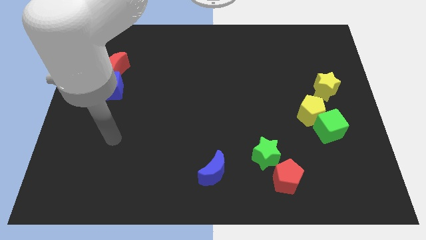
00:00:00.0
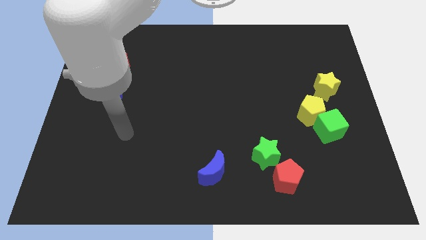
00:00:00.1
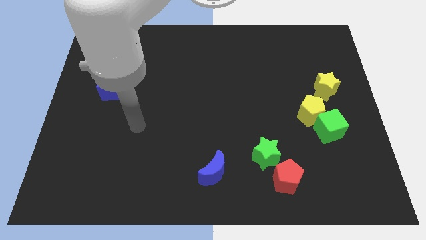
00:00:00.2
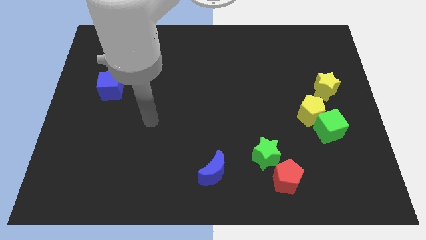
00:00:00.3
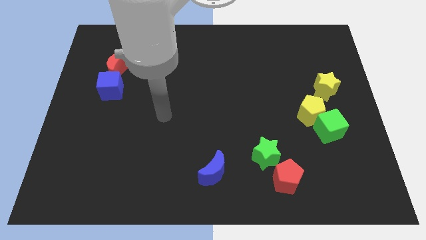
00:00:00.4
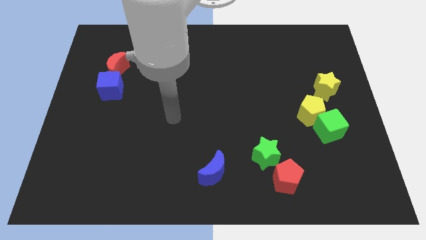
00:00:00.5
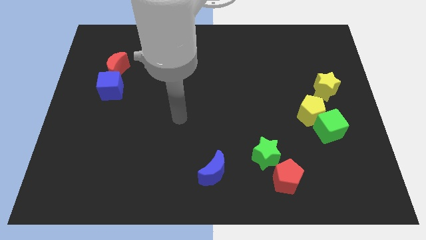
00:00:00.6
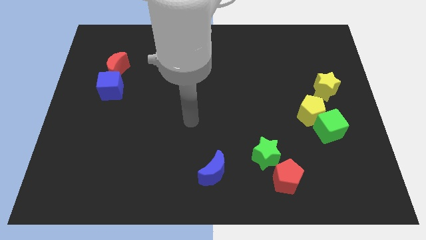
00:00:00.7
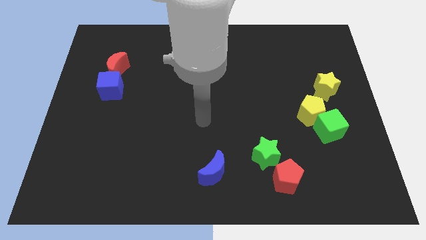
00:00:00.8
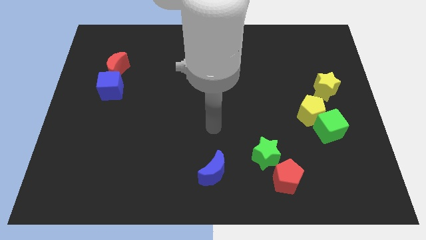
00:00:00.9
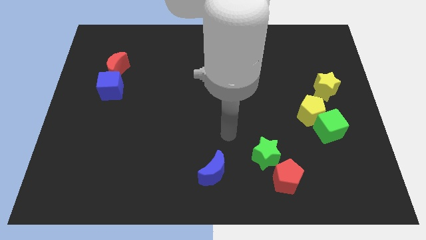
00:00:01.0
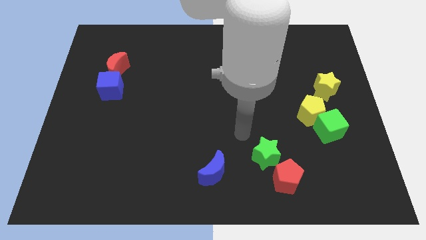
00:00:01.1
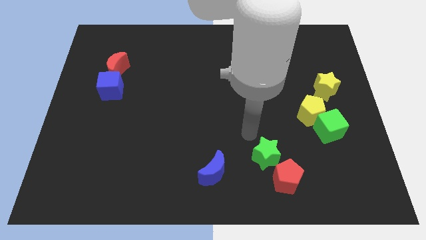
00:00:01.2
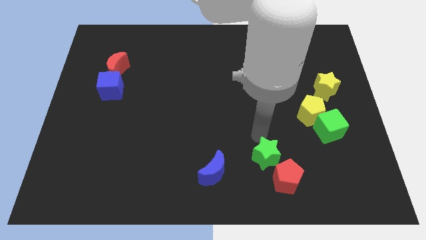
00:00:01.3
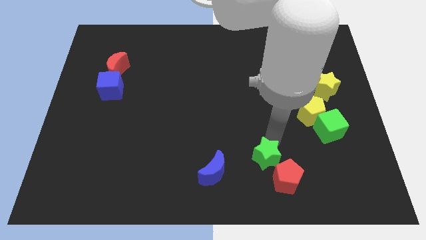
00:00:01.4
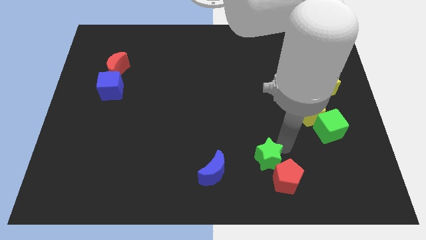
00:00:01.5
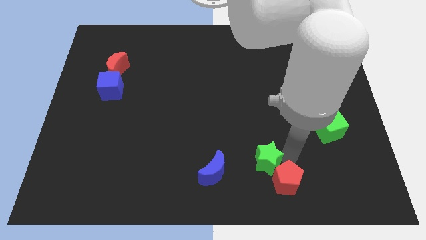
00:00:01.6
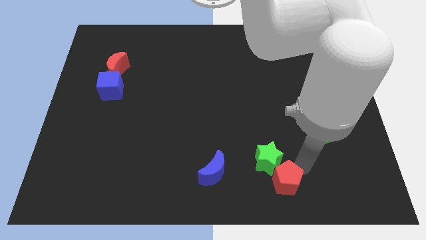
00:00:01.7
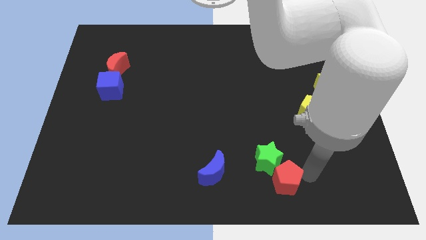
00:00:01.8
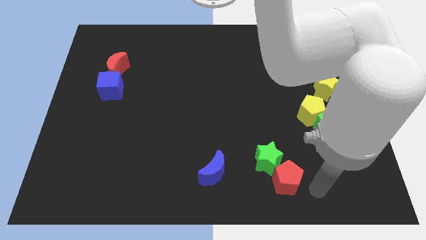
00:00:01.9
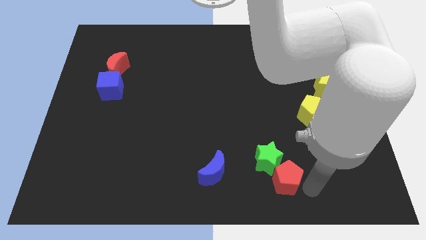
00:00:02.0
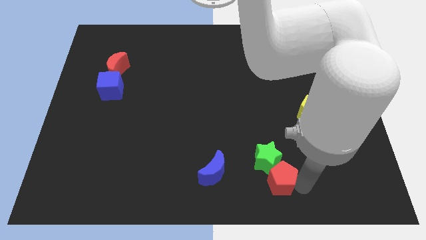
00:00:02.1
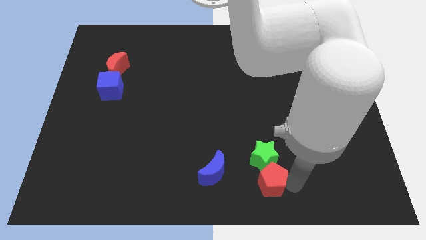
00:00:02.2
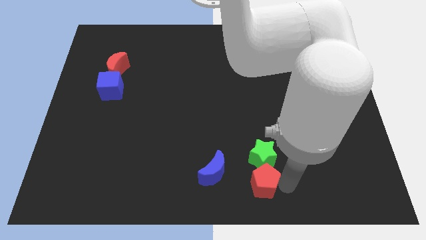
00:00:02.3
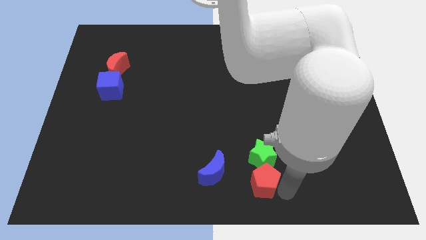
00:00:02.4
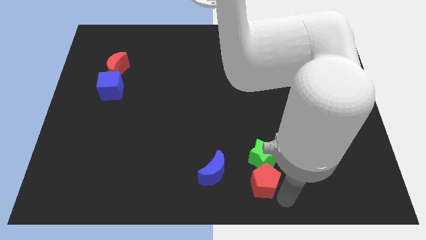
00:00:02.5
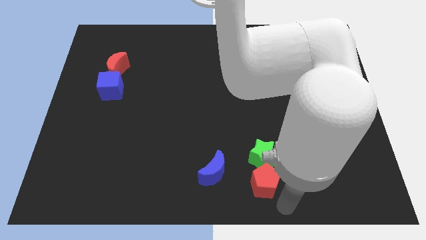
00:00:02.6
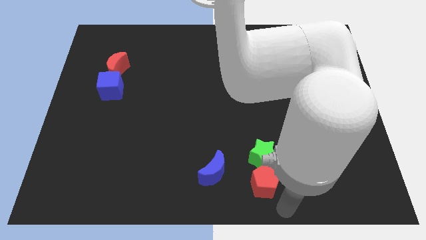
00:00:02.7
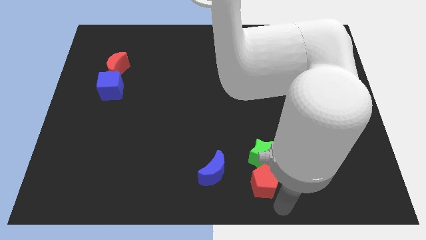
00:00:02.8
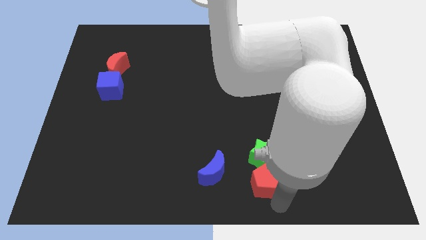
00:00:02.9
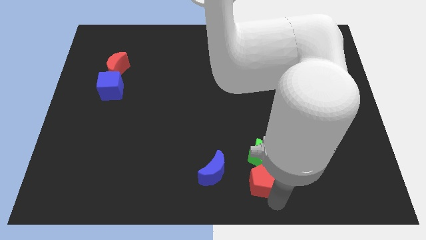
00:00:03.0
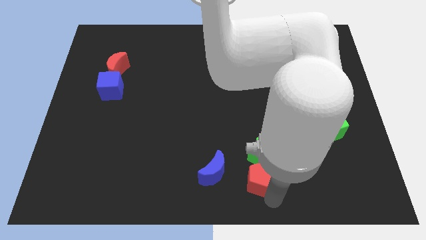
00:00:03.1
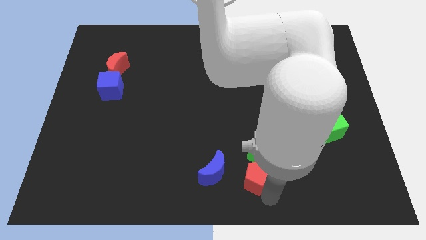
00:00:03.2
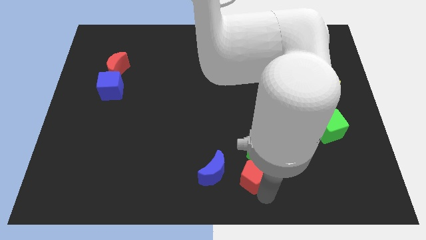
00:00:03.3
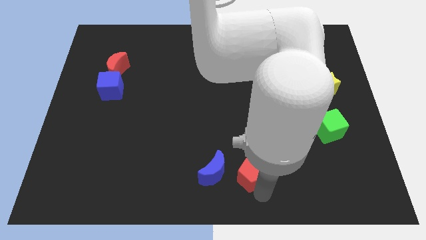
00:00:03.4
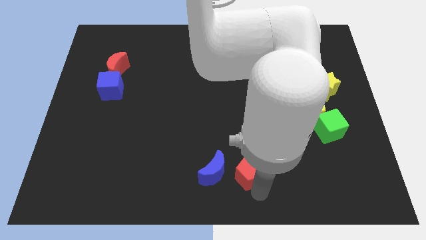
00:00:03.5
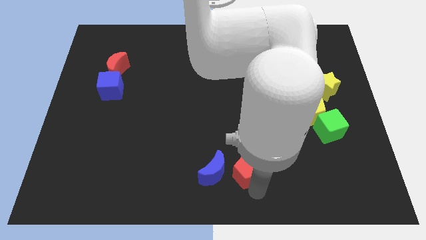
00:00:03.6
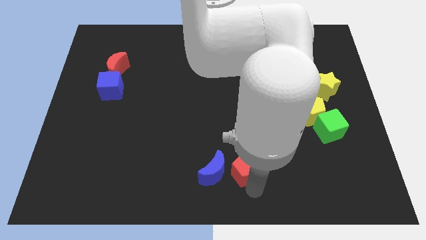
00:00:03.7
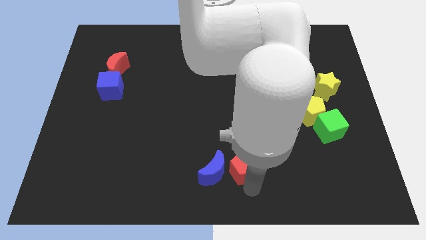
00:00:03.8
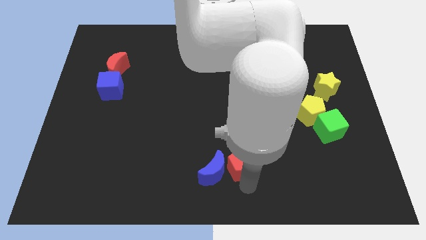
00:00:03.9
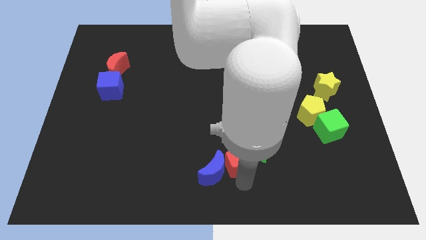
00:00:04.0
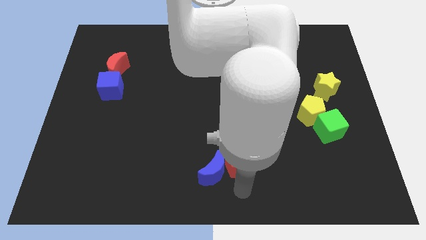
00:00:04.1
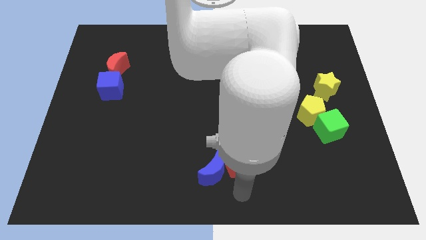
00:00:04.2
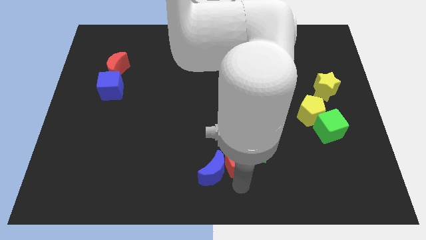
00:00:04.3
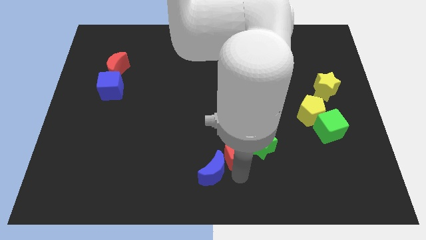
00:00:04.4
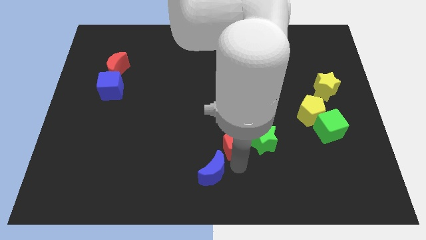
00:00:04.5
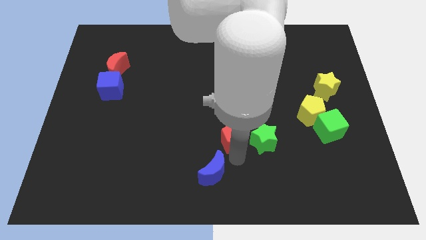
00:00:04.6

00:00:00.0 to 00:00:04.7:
push the red pentagon to the top left side of the green star

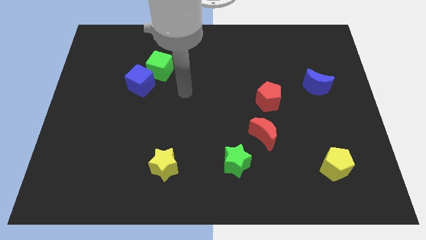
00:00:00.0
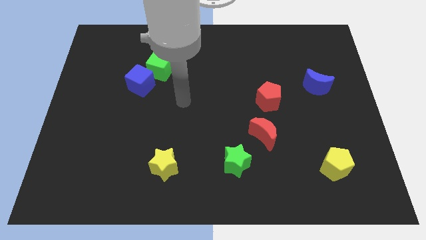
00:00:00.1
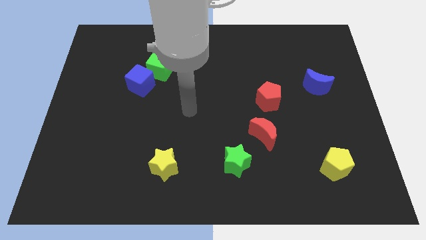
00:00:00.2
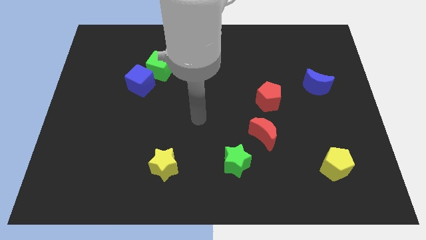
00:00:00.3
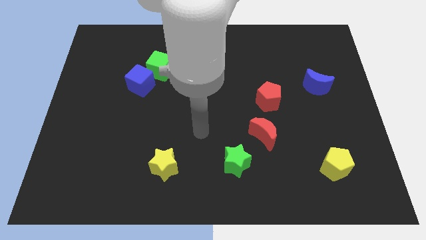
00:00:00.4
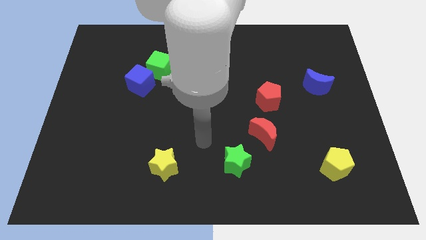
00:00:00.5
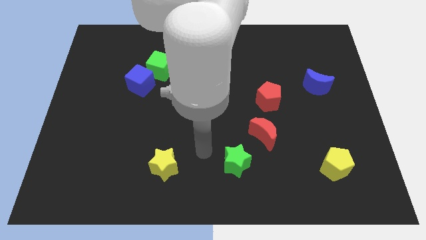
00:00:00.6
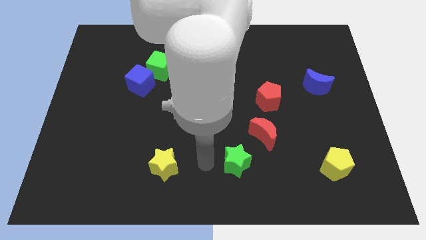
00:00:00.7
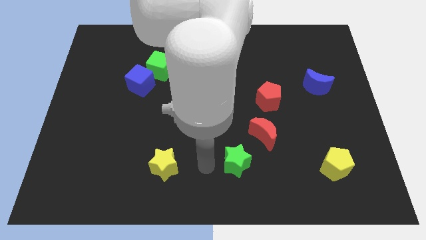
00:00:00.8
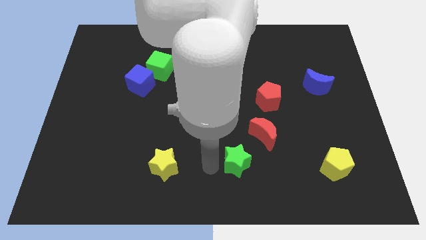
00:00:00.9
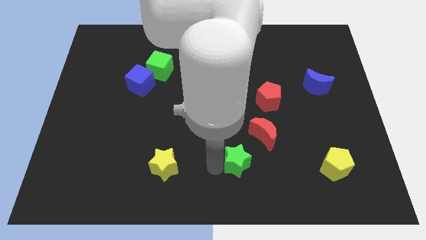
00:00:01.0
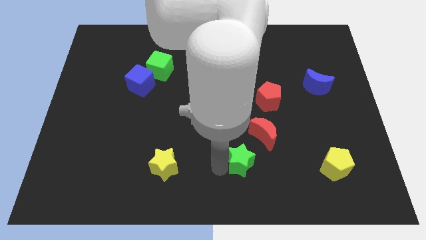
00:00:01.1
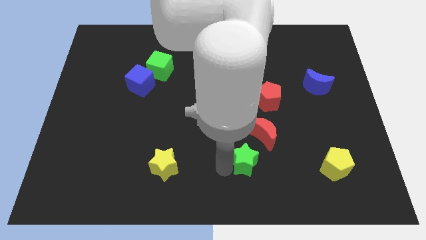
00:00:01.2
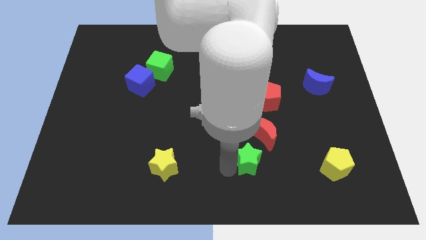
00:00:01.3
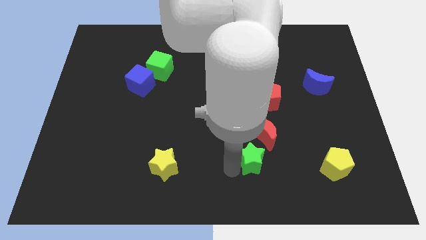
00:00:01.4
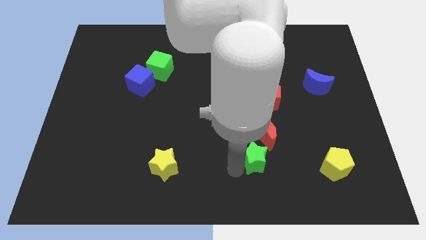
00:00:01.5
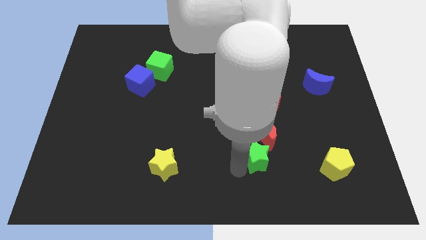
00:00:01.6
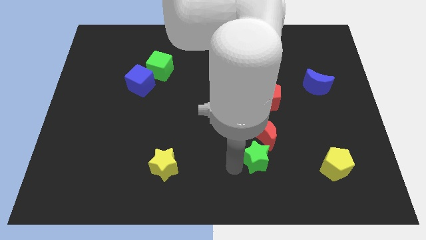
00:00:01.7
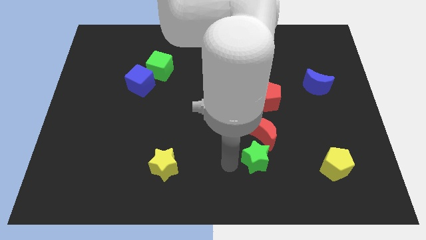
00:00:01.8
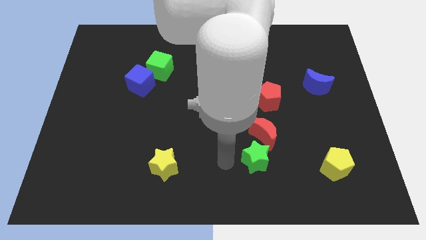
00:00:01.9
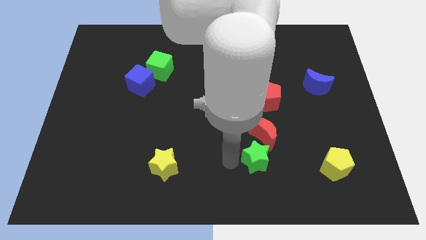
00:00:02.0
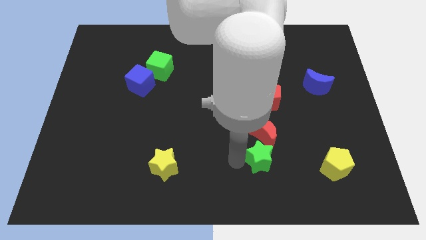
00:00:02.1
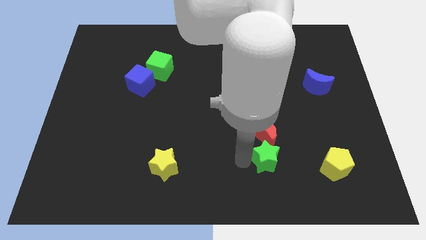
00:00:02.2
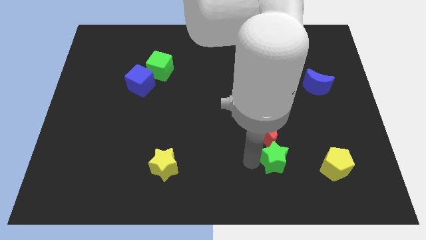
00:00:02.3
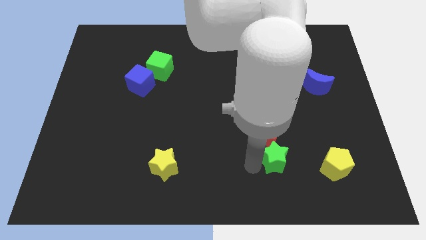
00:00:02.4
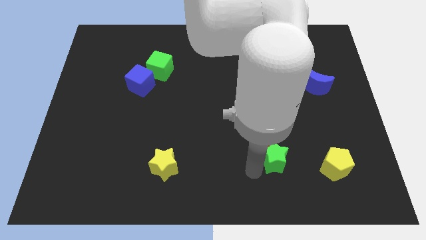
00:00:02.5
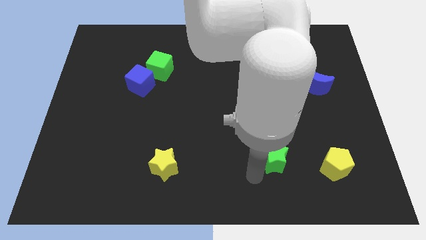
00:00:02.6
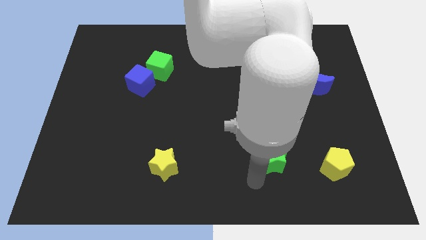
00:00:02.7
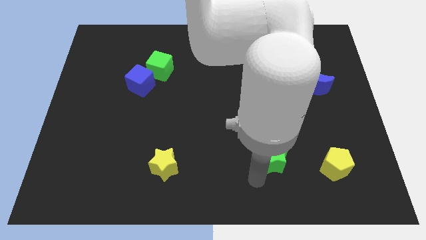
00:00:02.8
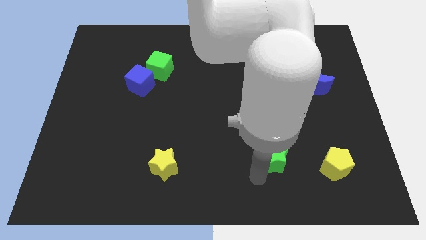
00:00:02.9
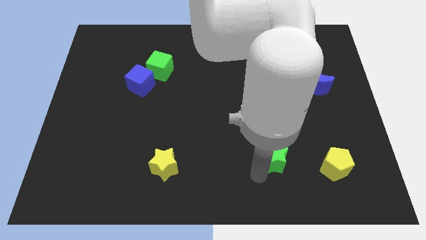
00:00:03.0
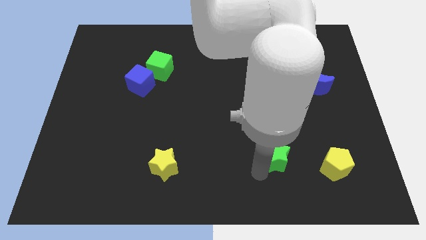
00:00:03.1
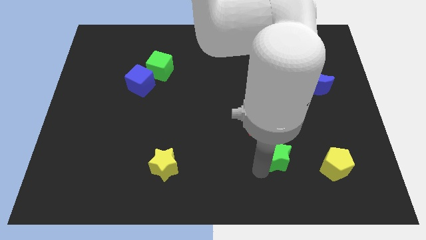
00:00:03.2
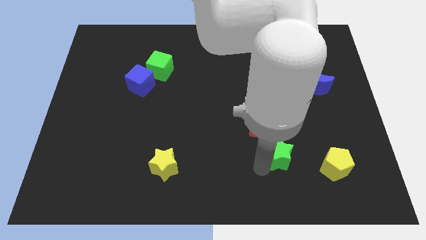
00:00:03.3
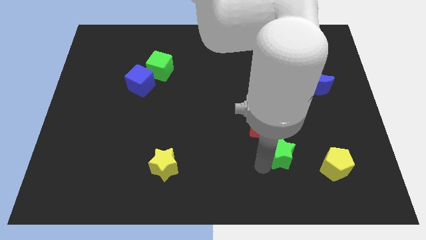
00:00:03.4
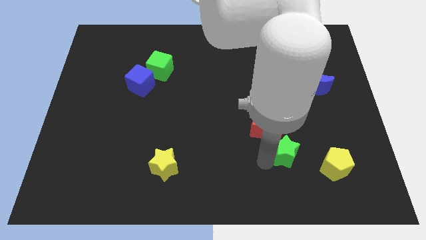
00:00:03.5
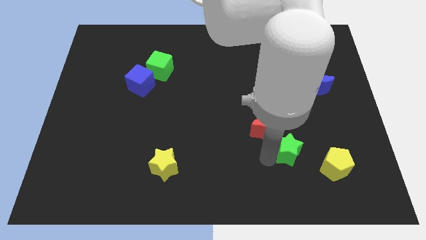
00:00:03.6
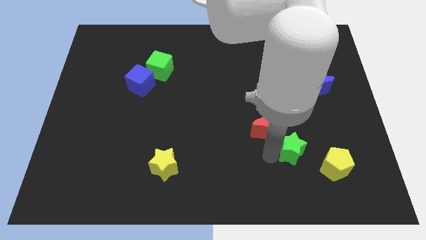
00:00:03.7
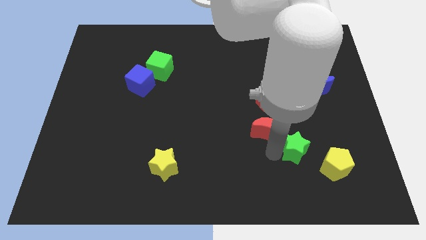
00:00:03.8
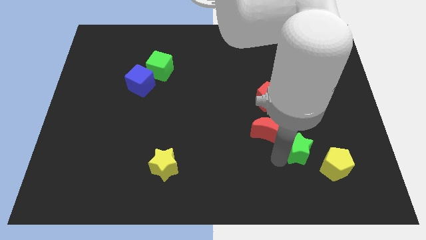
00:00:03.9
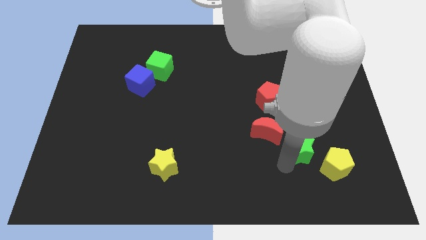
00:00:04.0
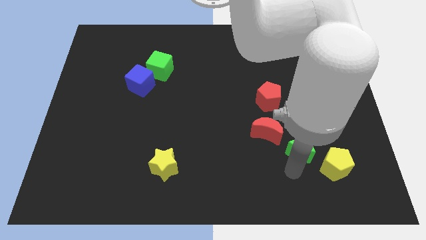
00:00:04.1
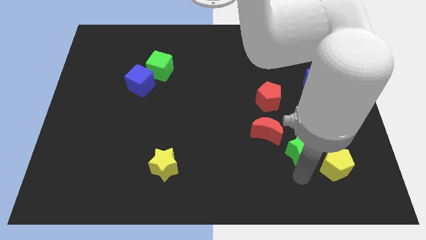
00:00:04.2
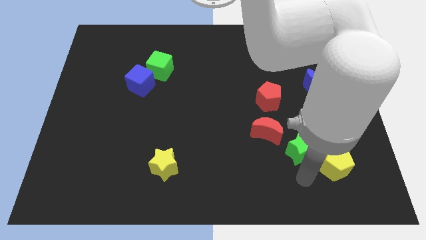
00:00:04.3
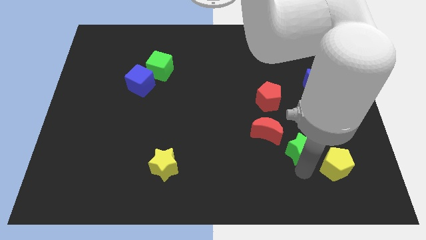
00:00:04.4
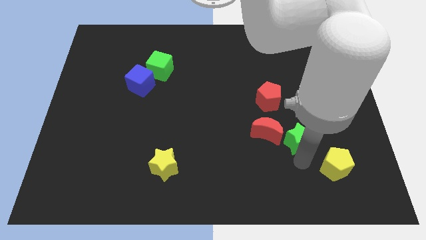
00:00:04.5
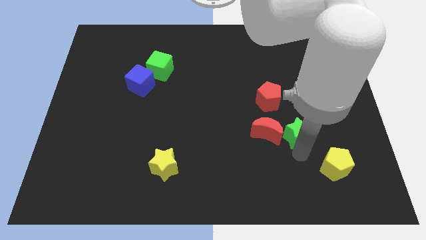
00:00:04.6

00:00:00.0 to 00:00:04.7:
slide the green star to the bottom right of the red pentagon
